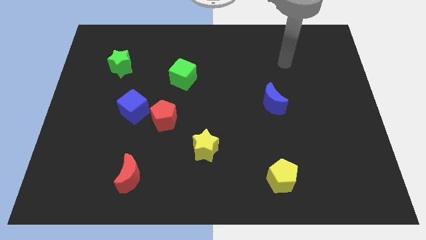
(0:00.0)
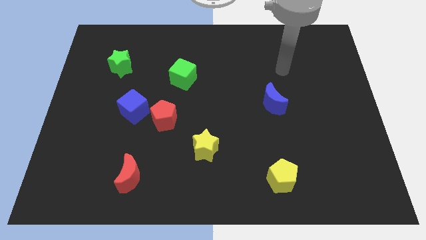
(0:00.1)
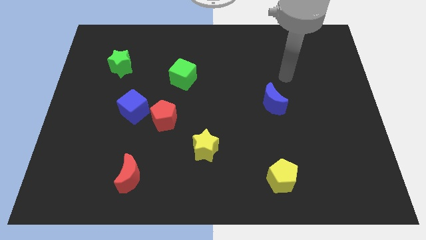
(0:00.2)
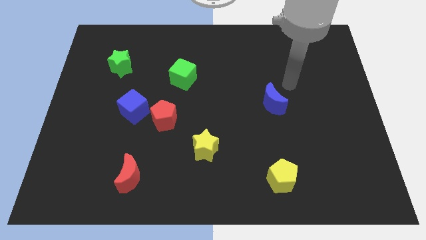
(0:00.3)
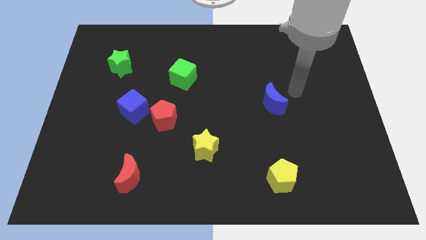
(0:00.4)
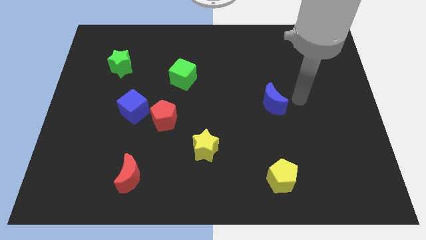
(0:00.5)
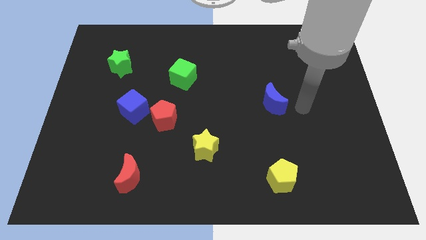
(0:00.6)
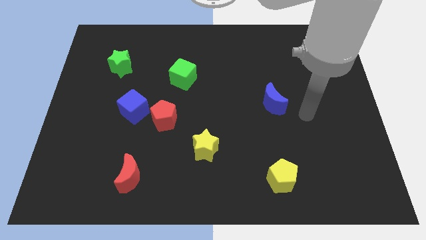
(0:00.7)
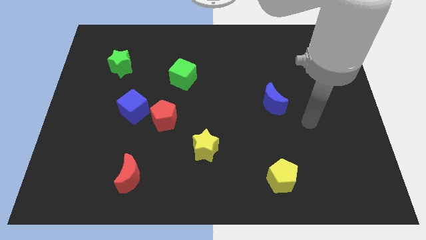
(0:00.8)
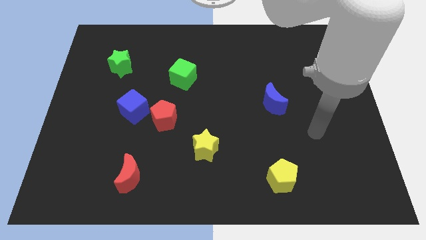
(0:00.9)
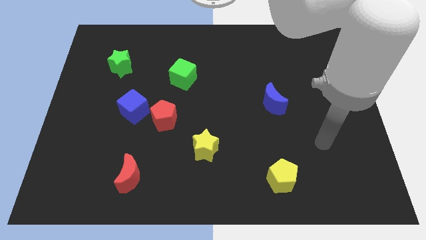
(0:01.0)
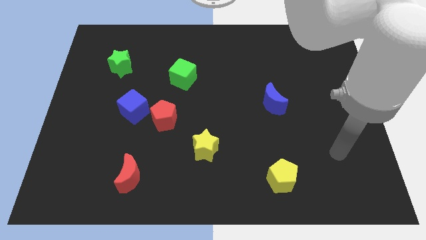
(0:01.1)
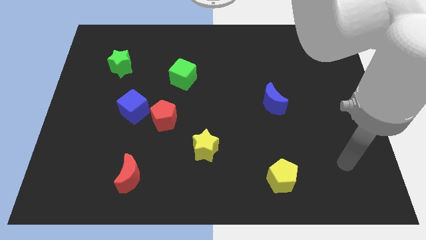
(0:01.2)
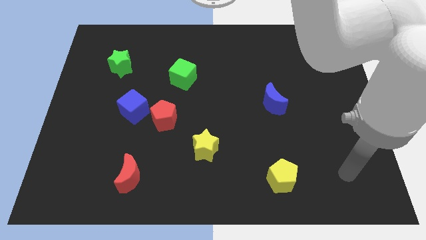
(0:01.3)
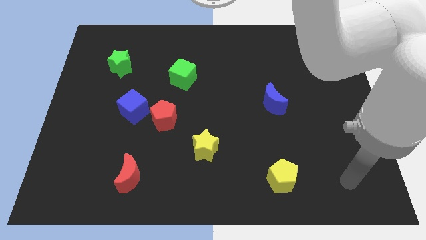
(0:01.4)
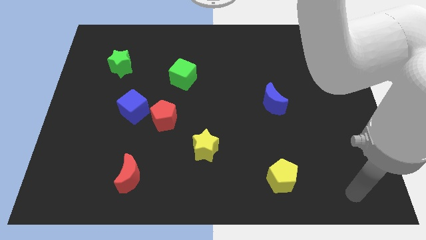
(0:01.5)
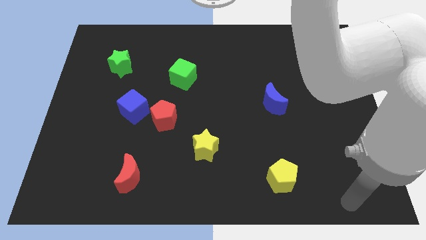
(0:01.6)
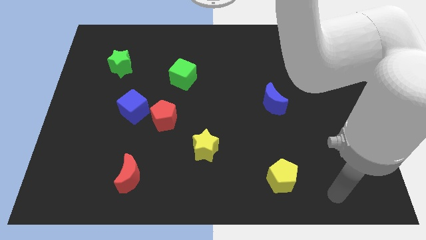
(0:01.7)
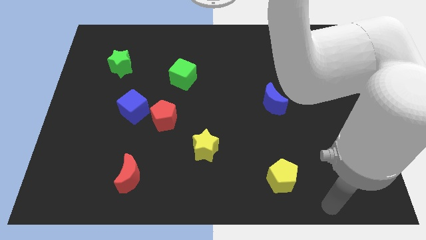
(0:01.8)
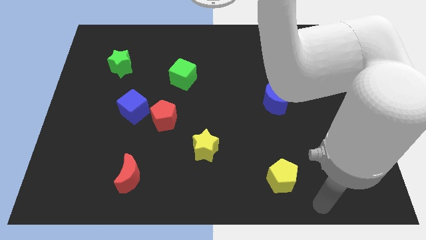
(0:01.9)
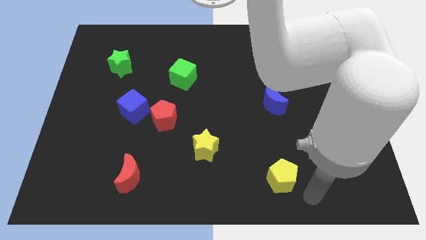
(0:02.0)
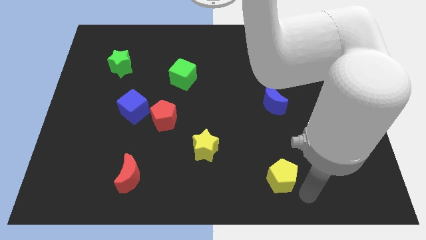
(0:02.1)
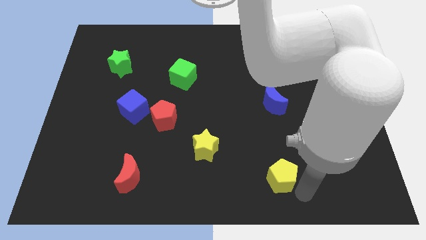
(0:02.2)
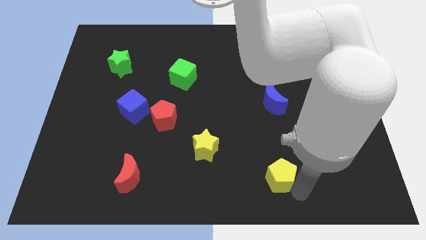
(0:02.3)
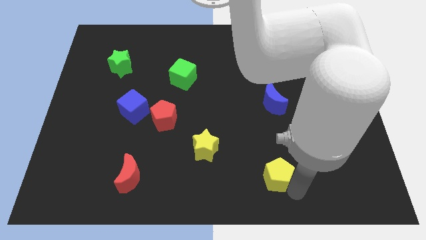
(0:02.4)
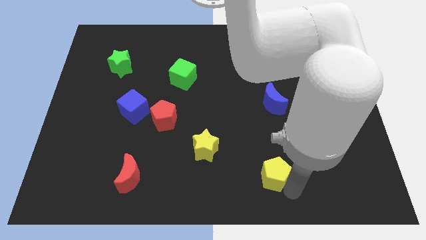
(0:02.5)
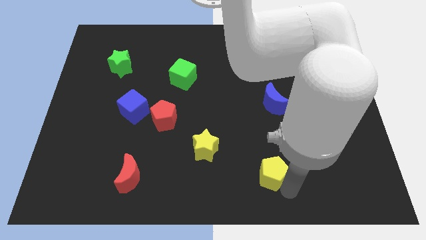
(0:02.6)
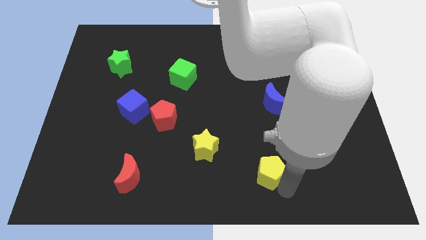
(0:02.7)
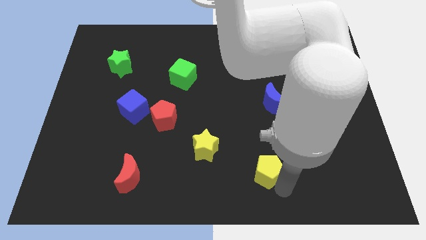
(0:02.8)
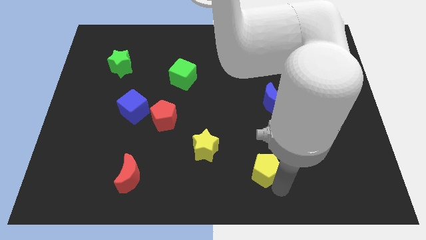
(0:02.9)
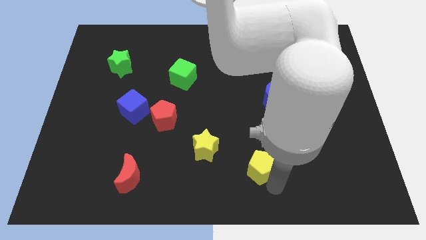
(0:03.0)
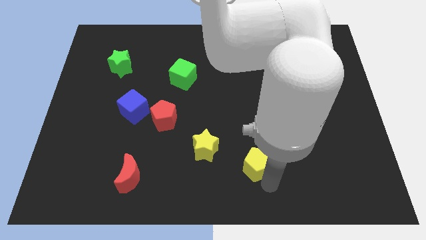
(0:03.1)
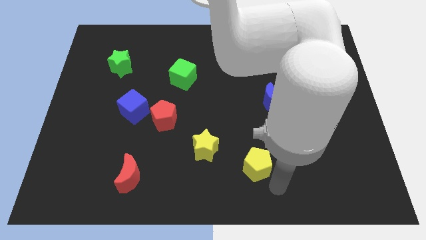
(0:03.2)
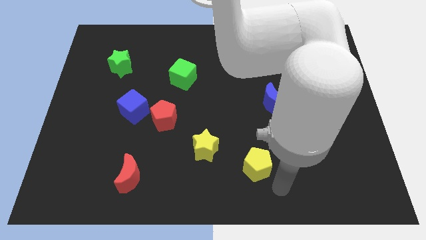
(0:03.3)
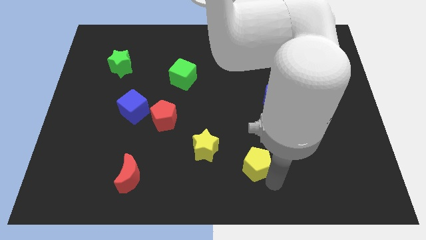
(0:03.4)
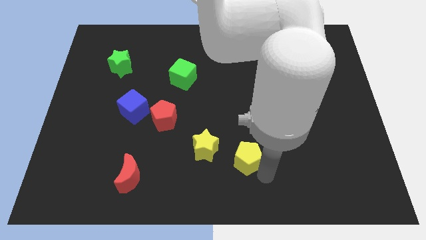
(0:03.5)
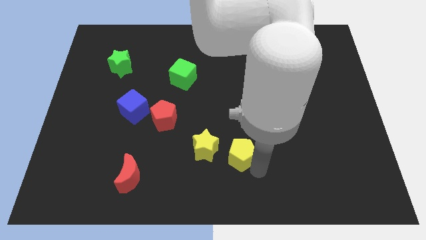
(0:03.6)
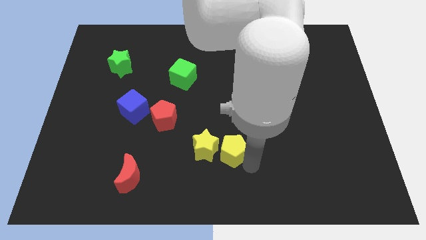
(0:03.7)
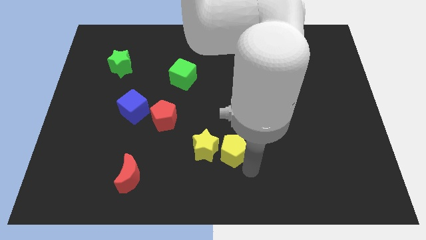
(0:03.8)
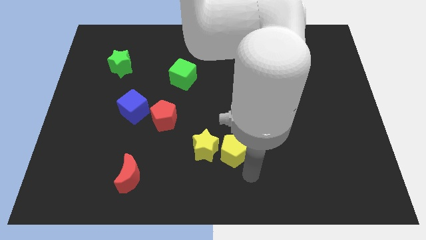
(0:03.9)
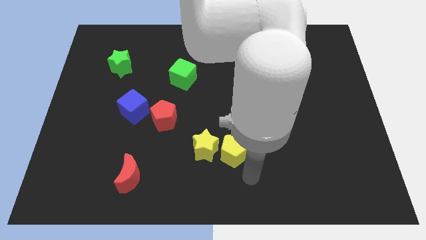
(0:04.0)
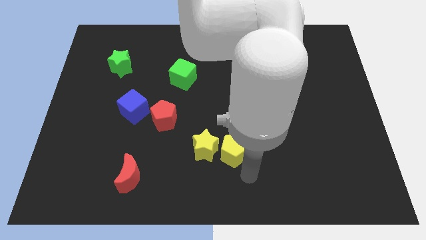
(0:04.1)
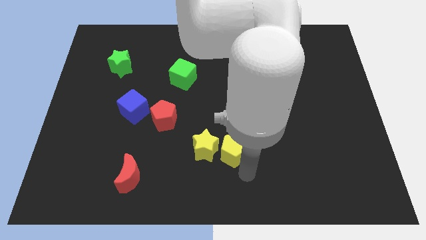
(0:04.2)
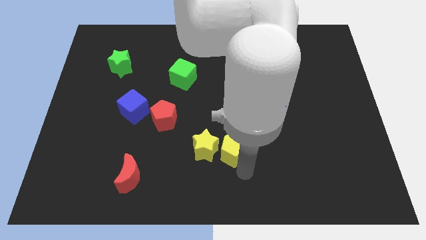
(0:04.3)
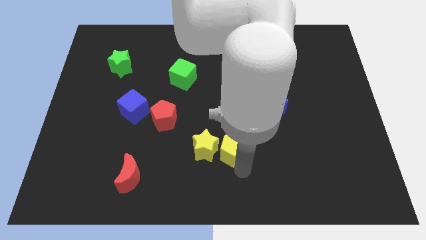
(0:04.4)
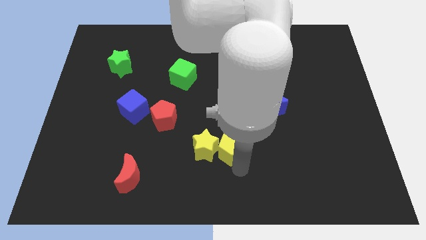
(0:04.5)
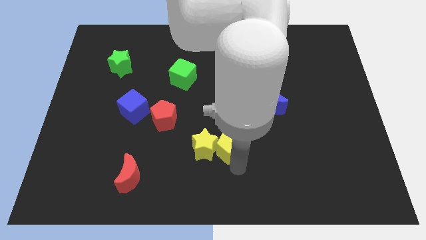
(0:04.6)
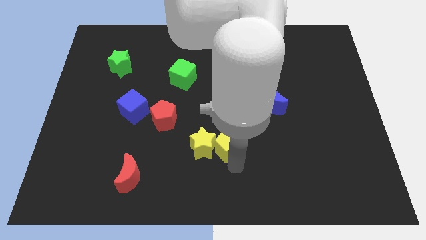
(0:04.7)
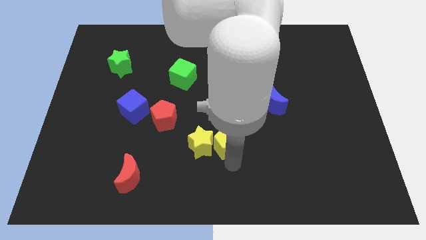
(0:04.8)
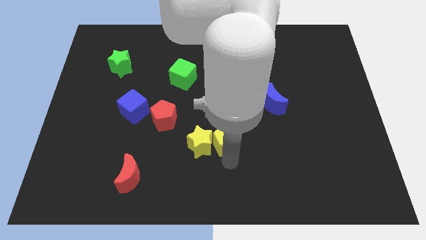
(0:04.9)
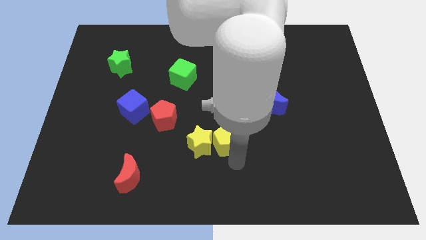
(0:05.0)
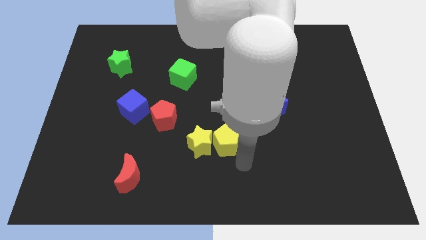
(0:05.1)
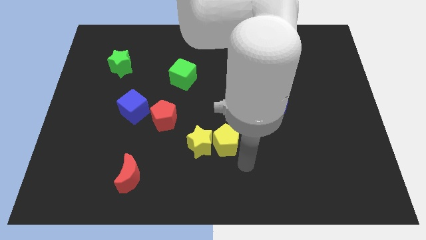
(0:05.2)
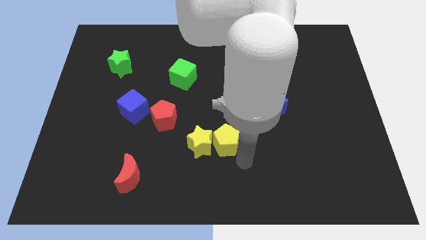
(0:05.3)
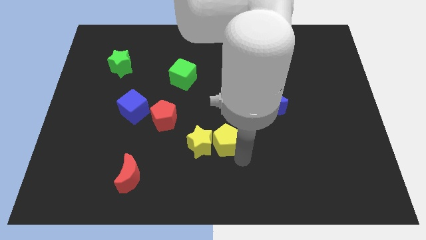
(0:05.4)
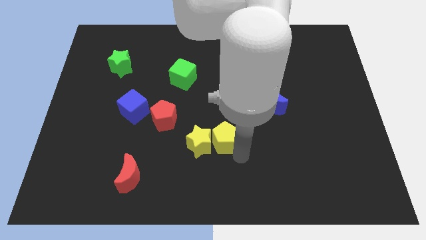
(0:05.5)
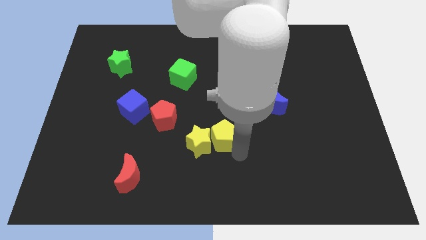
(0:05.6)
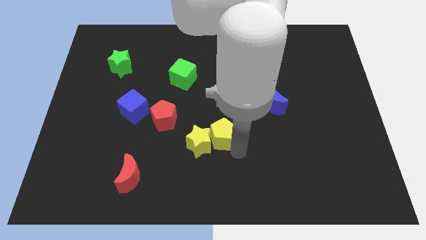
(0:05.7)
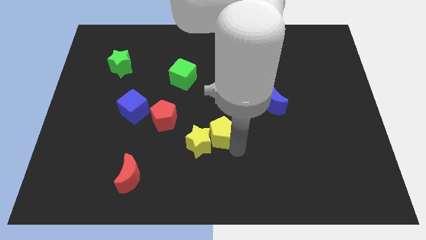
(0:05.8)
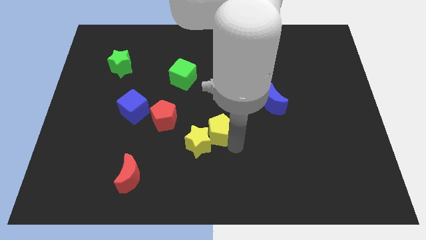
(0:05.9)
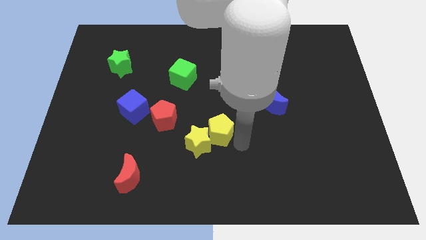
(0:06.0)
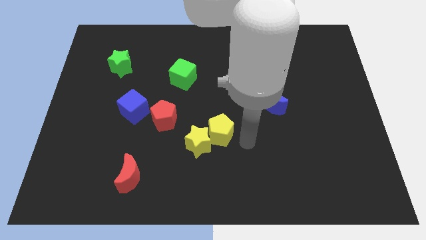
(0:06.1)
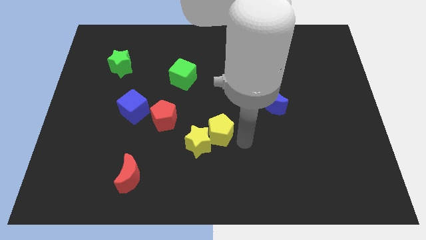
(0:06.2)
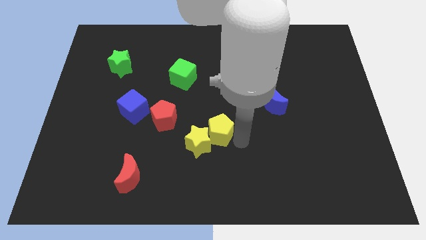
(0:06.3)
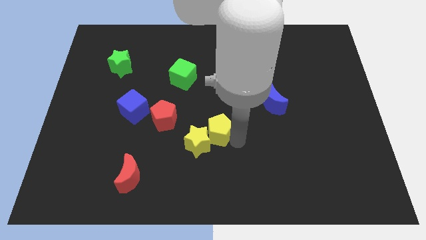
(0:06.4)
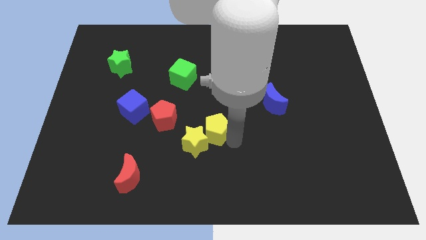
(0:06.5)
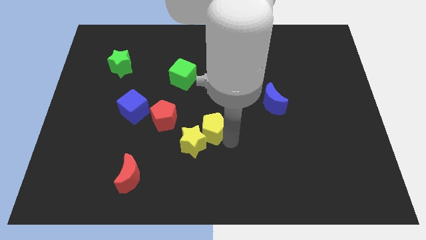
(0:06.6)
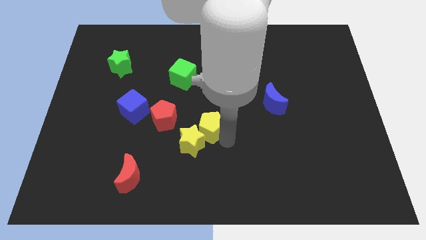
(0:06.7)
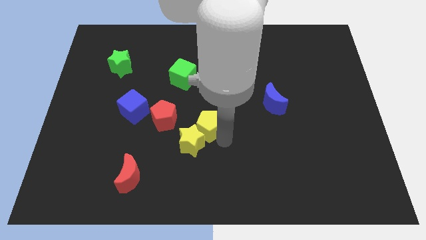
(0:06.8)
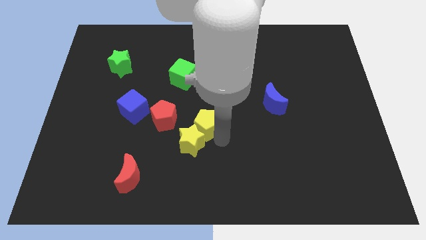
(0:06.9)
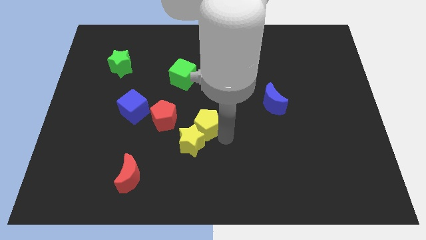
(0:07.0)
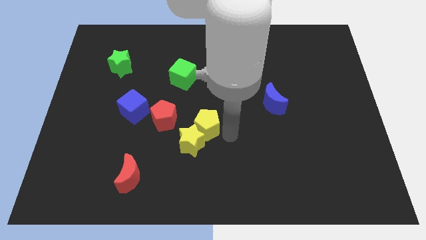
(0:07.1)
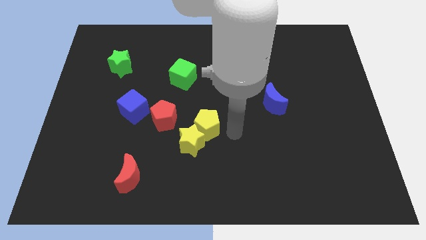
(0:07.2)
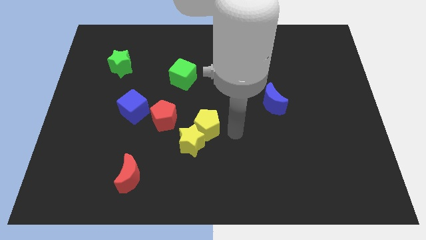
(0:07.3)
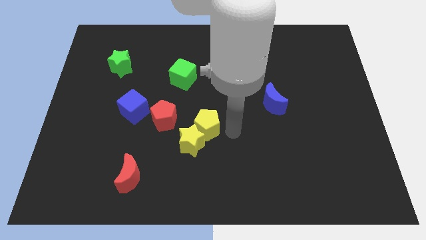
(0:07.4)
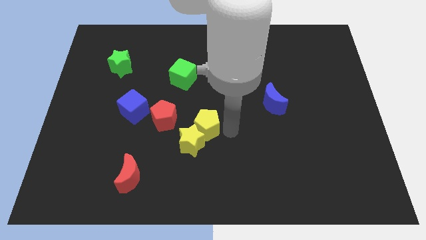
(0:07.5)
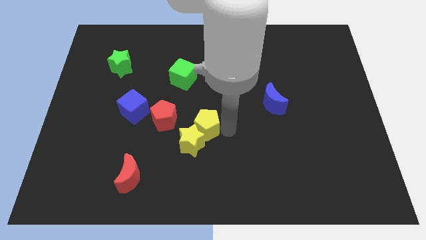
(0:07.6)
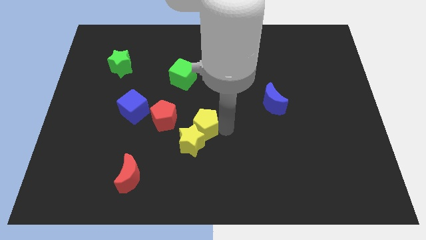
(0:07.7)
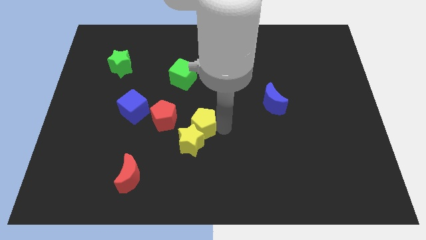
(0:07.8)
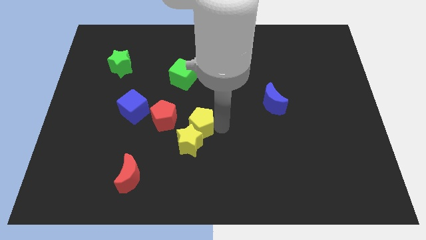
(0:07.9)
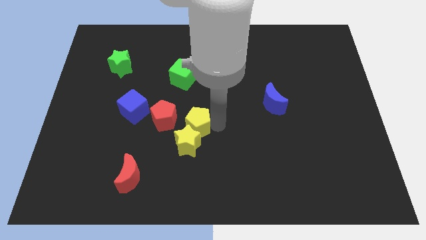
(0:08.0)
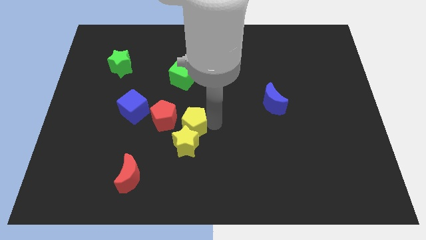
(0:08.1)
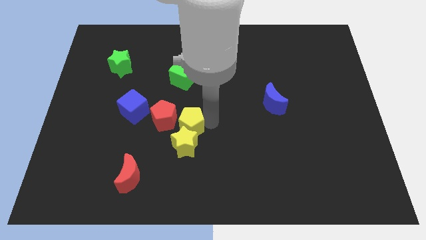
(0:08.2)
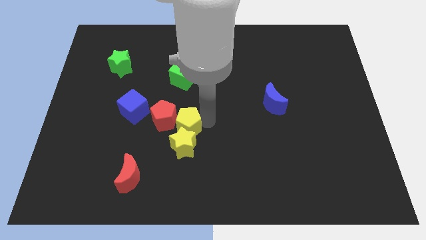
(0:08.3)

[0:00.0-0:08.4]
move the yellow pentagon close to the red pentagon
